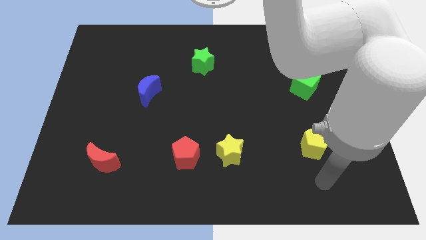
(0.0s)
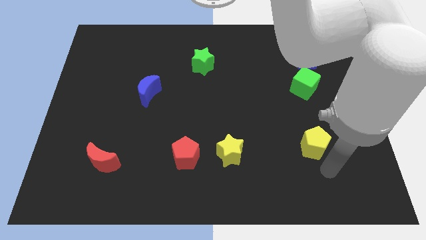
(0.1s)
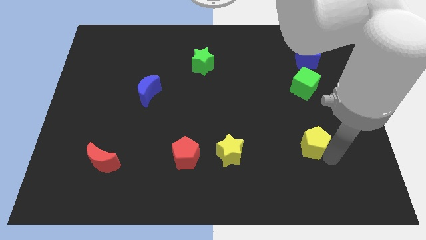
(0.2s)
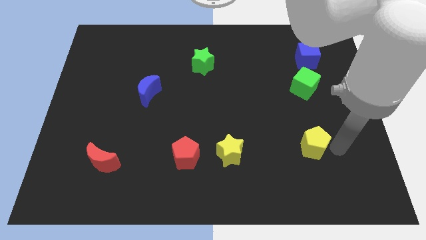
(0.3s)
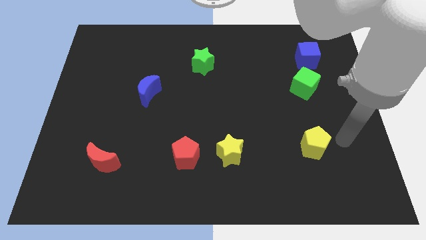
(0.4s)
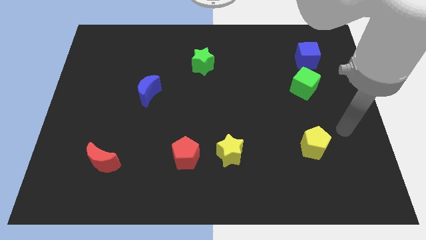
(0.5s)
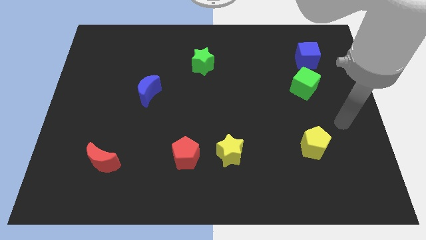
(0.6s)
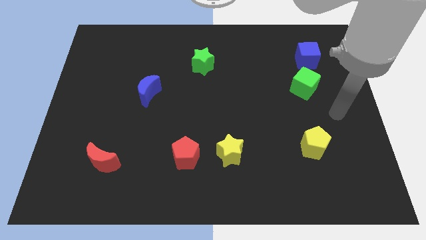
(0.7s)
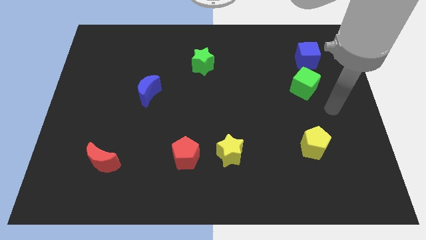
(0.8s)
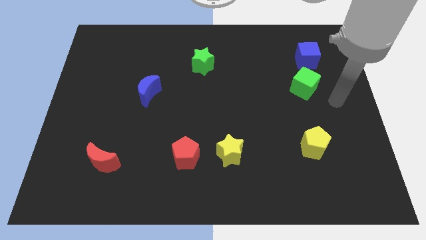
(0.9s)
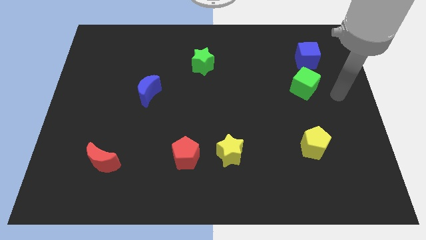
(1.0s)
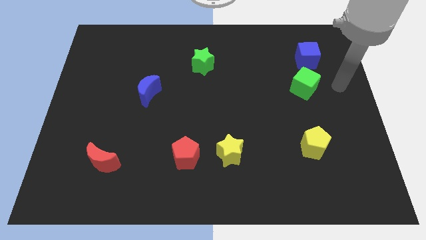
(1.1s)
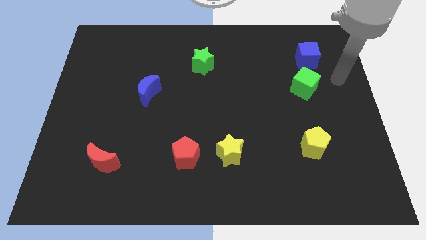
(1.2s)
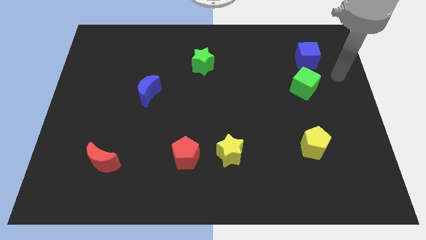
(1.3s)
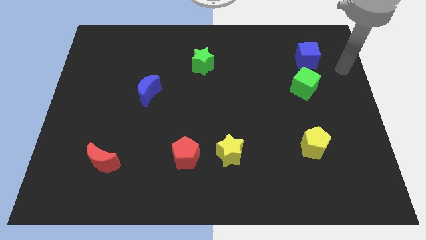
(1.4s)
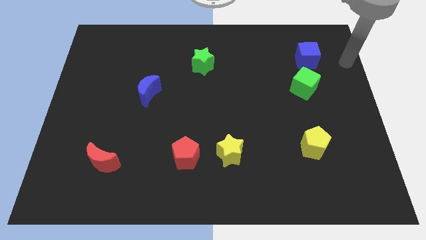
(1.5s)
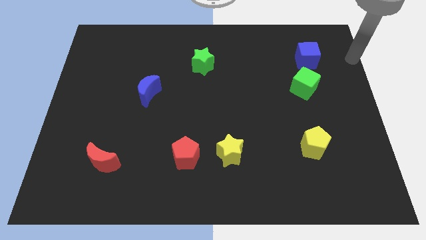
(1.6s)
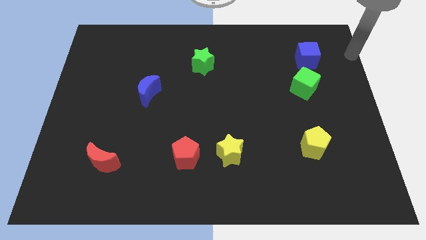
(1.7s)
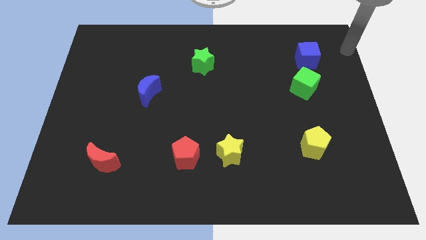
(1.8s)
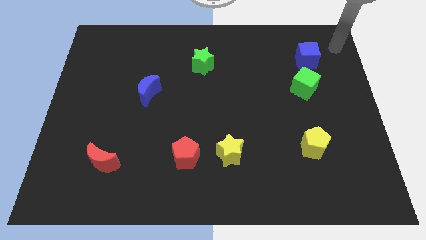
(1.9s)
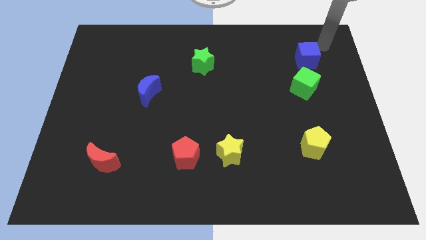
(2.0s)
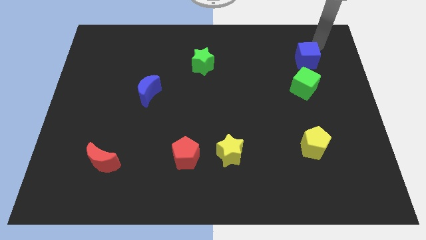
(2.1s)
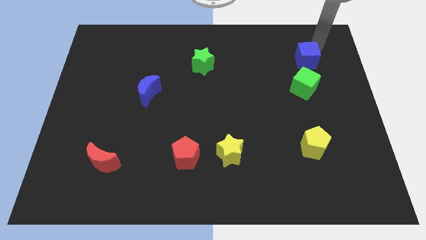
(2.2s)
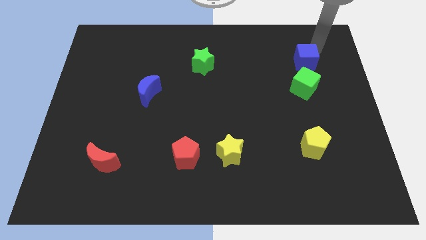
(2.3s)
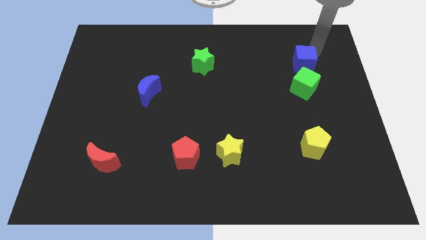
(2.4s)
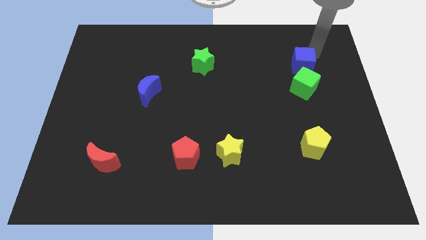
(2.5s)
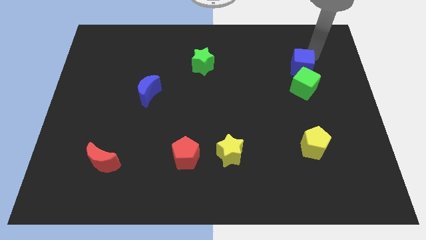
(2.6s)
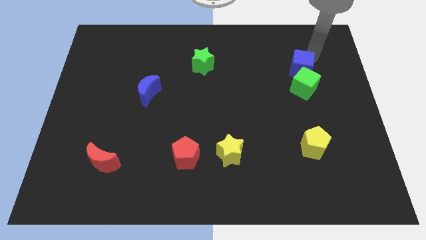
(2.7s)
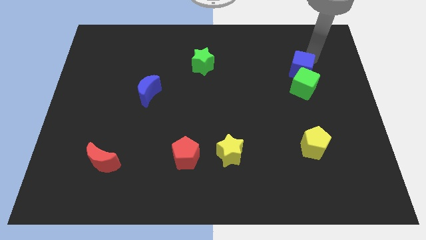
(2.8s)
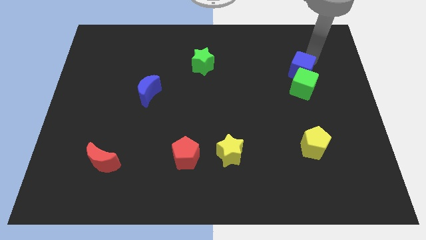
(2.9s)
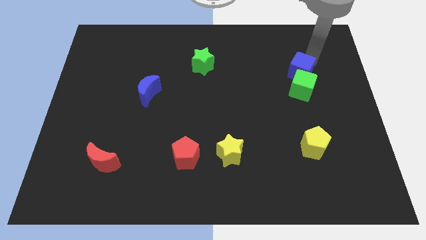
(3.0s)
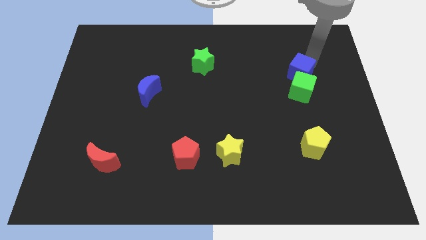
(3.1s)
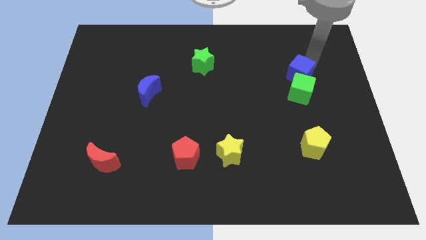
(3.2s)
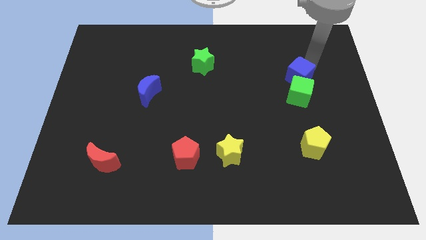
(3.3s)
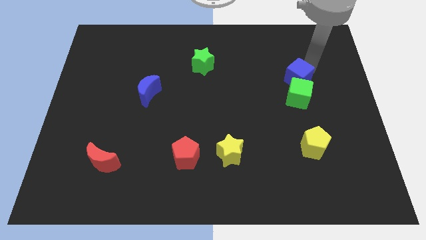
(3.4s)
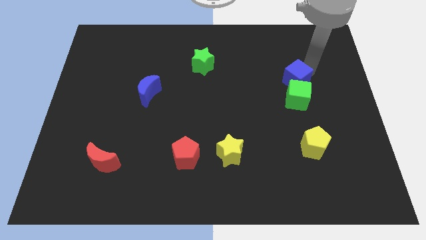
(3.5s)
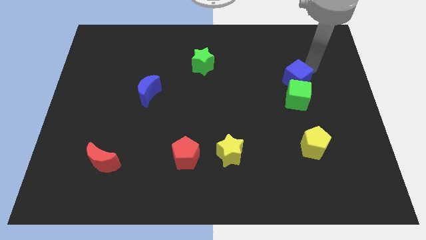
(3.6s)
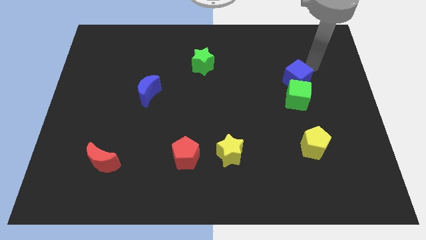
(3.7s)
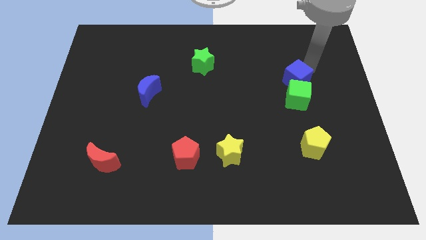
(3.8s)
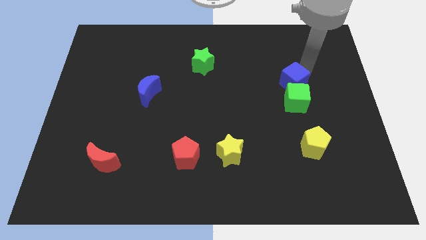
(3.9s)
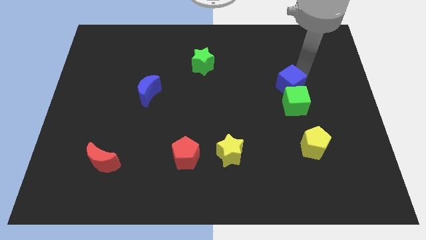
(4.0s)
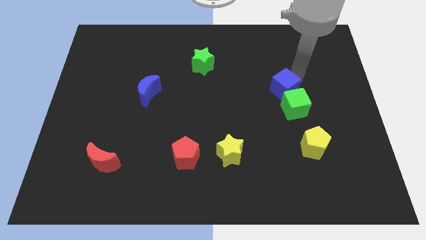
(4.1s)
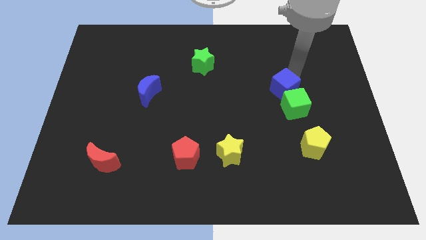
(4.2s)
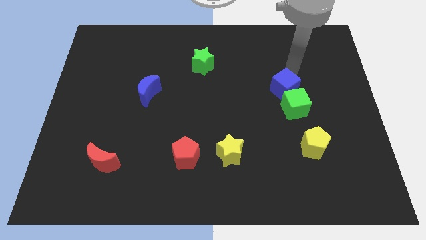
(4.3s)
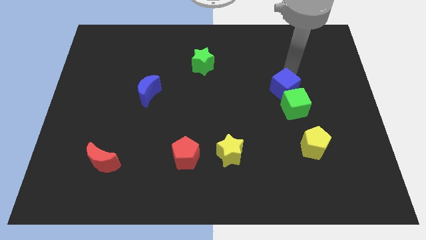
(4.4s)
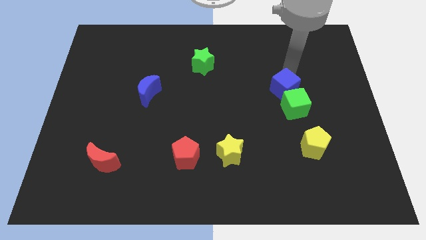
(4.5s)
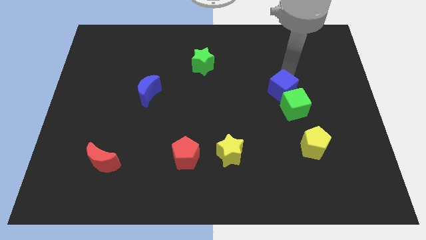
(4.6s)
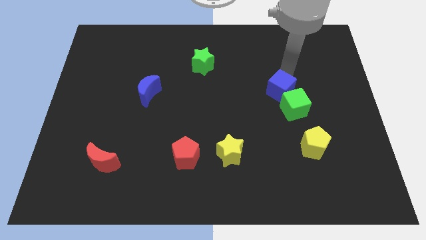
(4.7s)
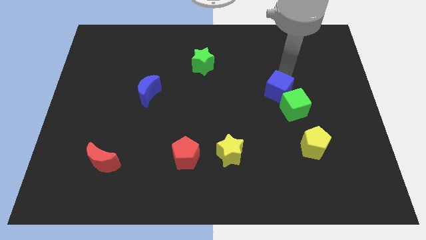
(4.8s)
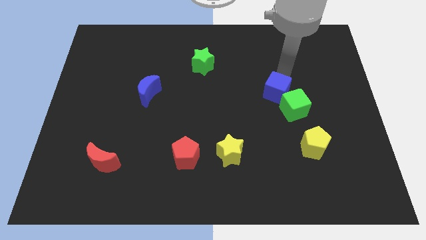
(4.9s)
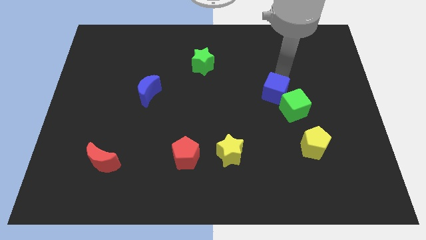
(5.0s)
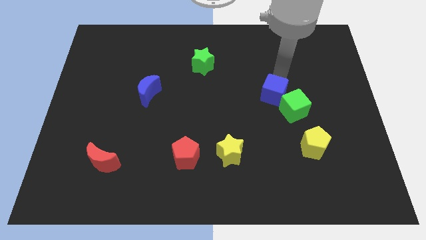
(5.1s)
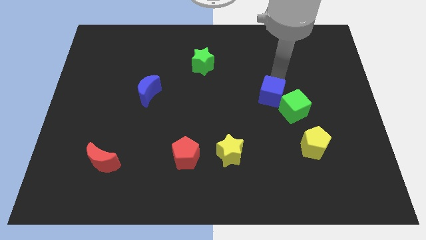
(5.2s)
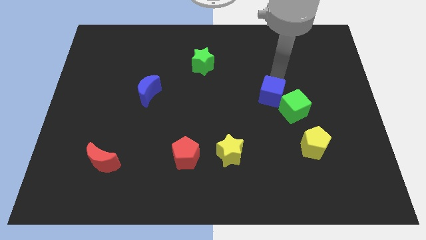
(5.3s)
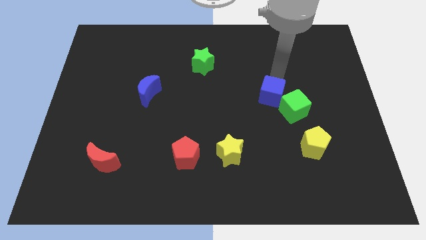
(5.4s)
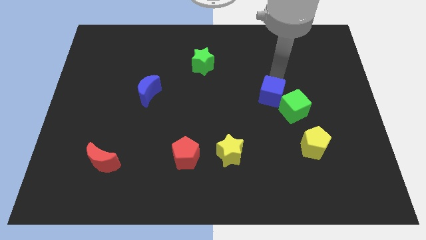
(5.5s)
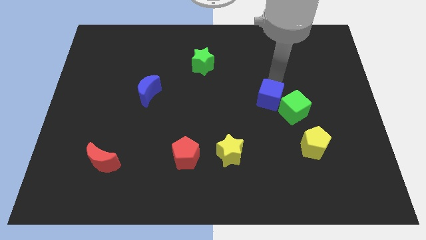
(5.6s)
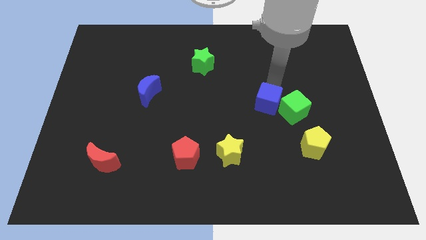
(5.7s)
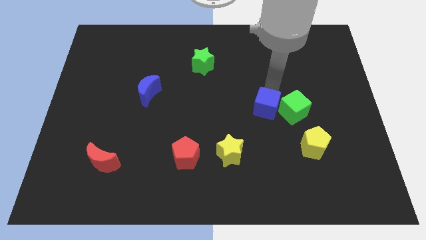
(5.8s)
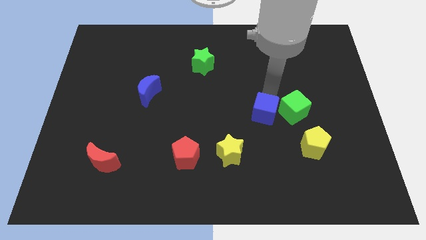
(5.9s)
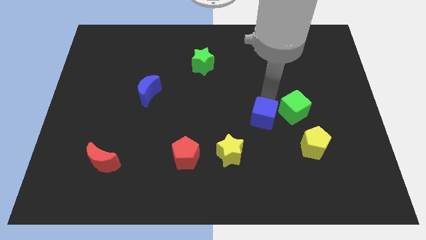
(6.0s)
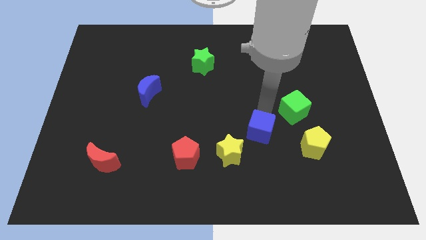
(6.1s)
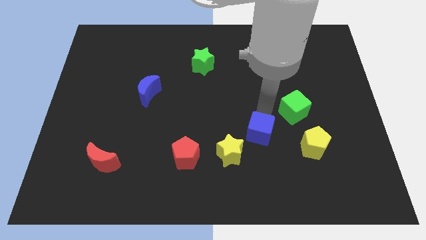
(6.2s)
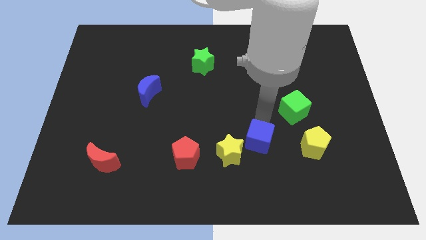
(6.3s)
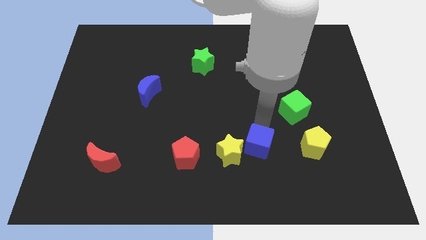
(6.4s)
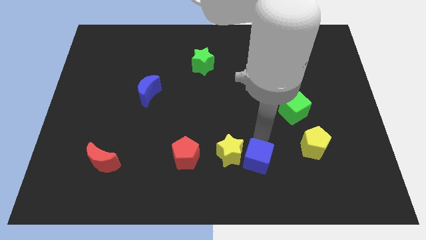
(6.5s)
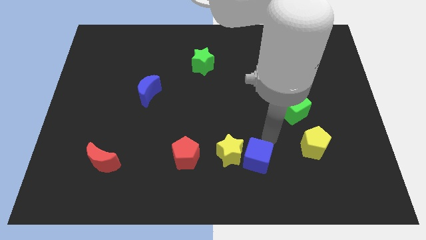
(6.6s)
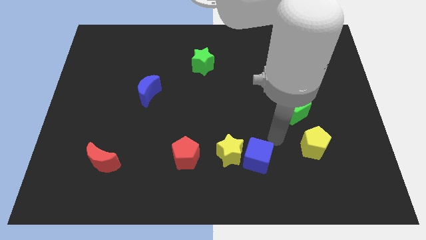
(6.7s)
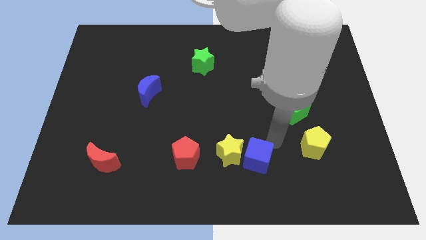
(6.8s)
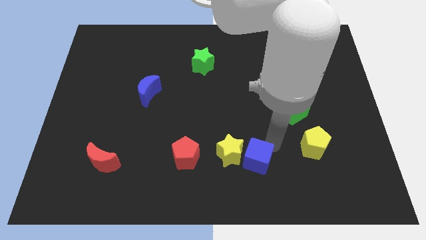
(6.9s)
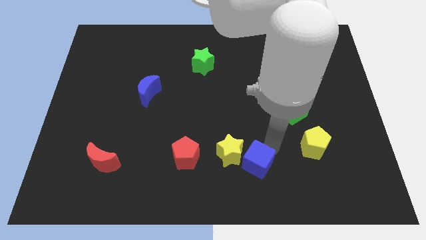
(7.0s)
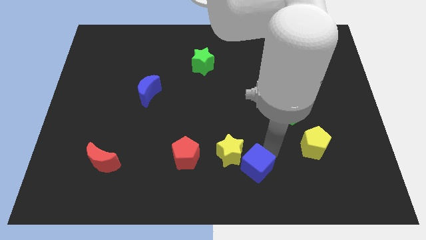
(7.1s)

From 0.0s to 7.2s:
move the blue cube to the bottom side
